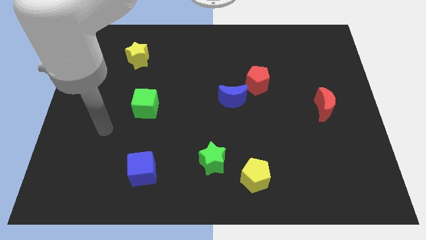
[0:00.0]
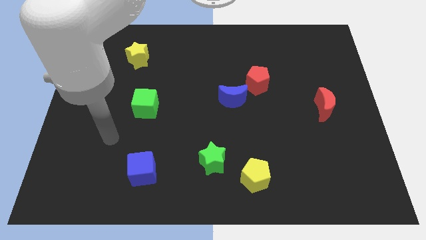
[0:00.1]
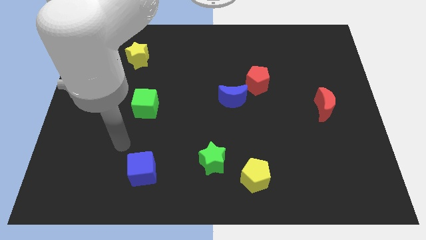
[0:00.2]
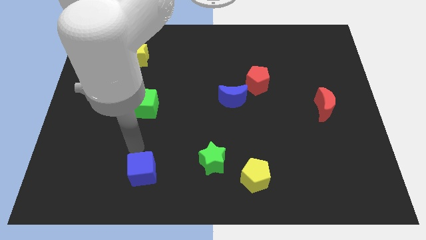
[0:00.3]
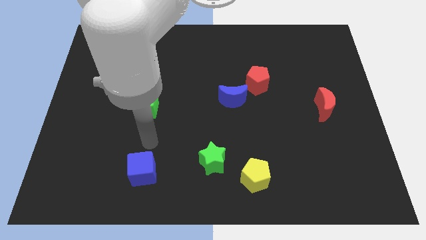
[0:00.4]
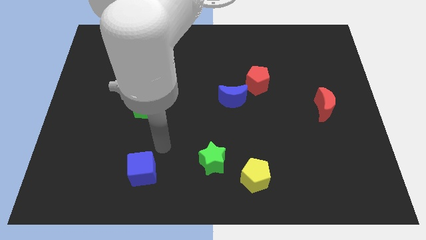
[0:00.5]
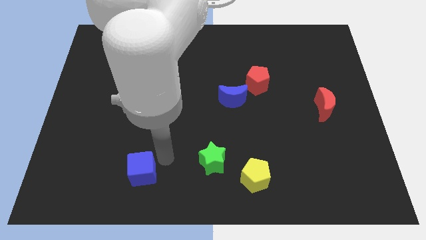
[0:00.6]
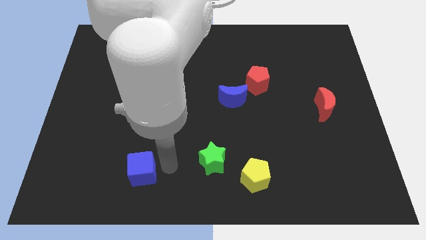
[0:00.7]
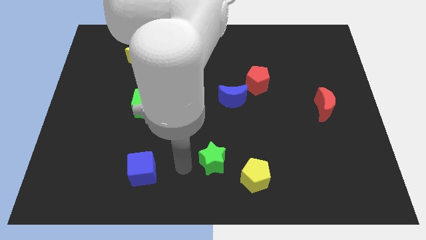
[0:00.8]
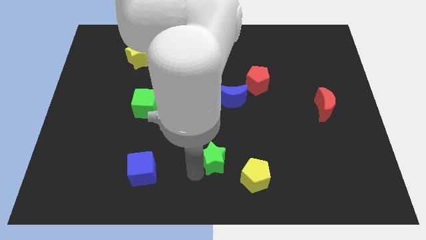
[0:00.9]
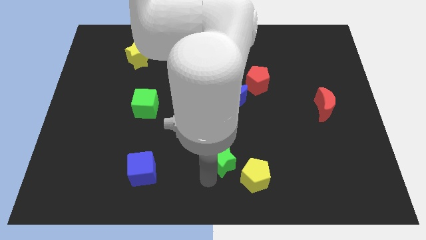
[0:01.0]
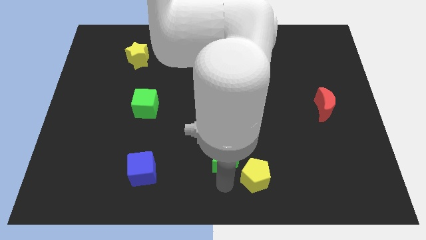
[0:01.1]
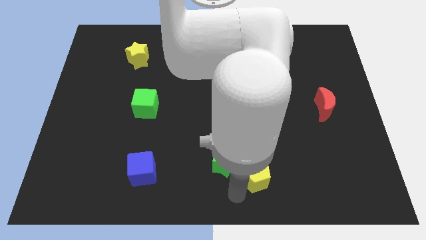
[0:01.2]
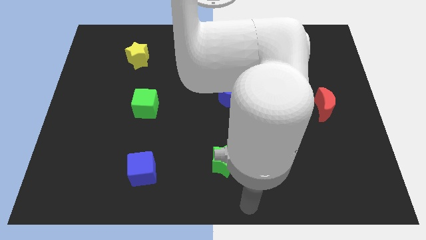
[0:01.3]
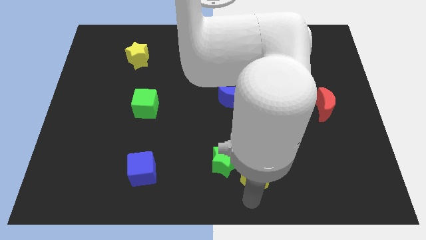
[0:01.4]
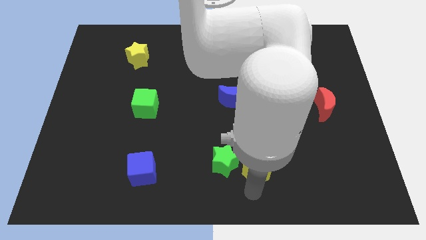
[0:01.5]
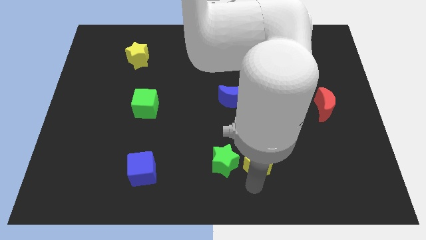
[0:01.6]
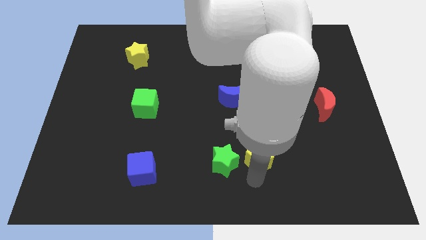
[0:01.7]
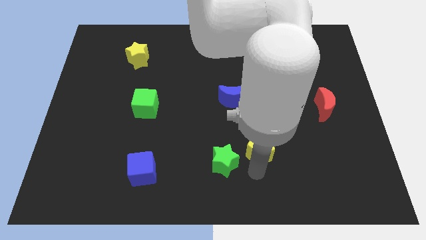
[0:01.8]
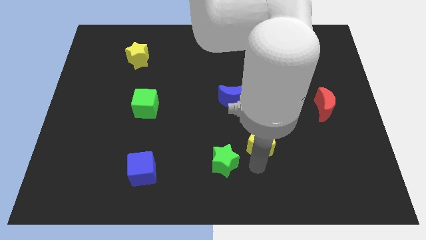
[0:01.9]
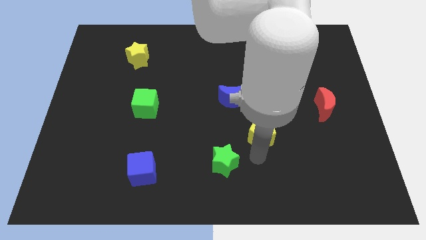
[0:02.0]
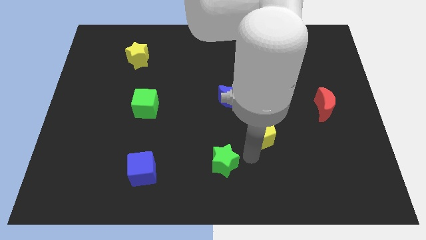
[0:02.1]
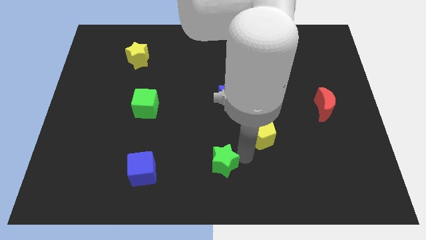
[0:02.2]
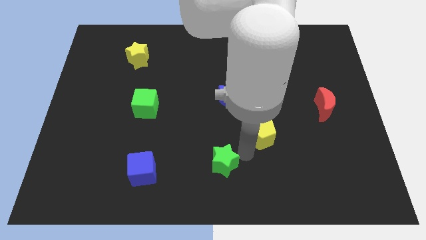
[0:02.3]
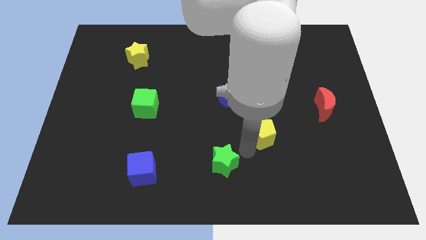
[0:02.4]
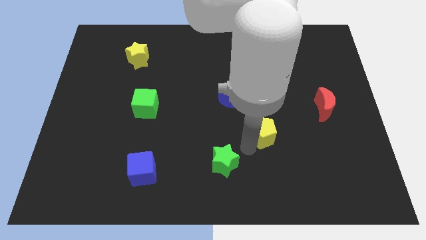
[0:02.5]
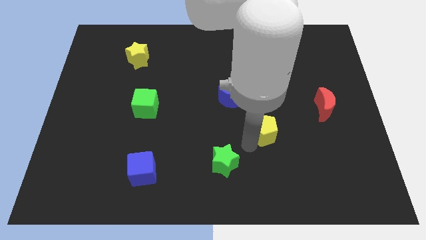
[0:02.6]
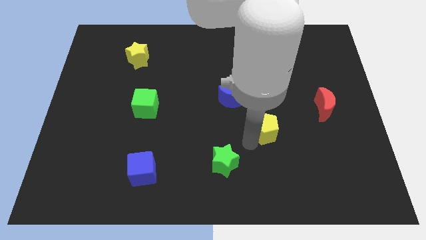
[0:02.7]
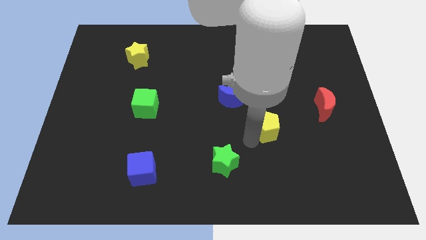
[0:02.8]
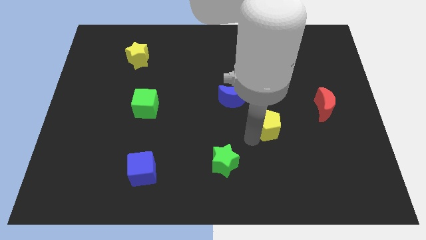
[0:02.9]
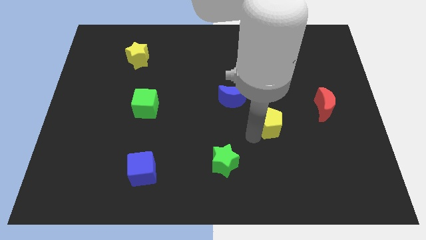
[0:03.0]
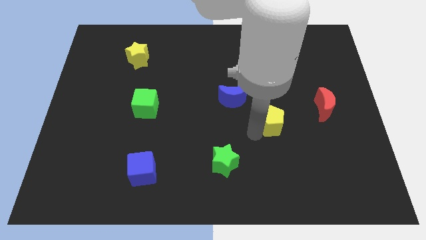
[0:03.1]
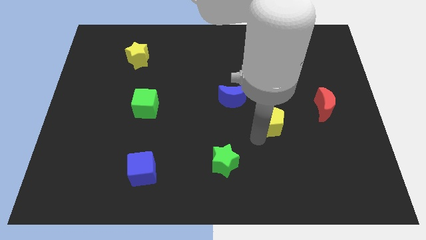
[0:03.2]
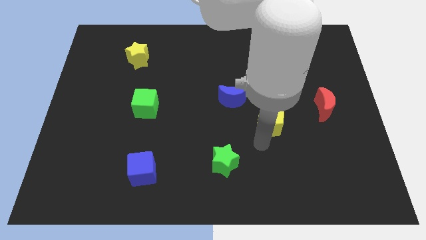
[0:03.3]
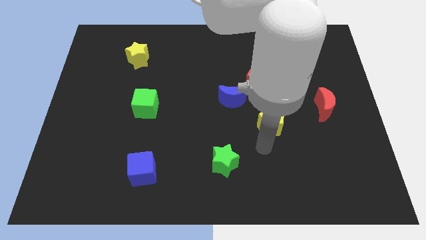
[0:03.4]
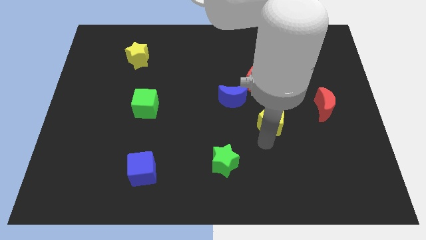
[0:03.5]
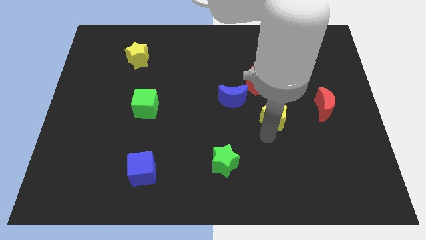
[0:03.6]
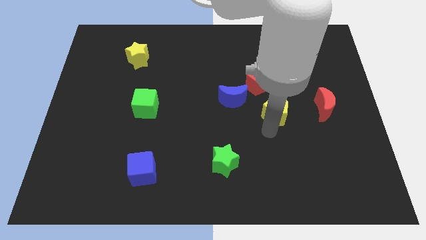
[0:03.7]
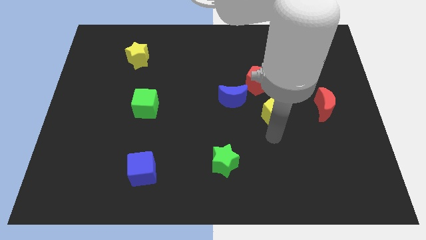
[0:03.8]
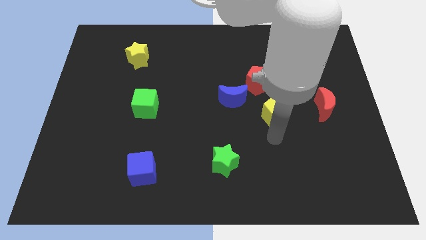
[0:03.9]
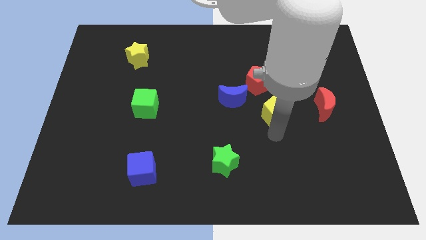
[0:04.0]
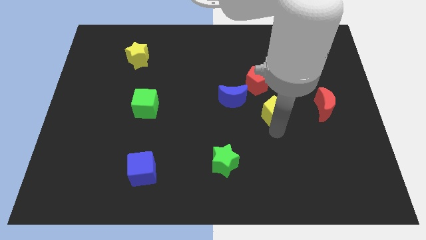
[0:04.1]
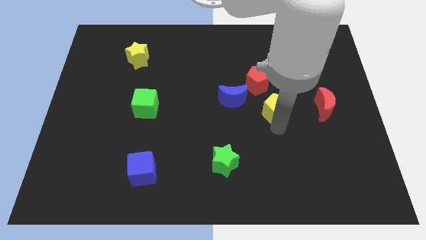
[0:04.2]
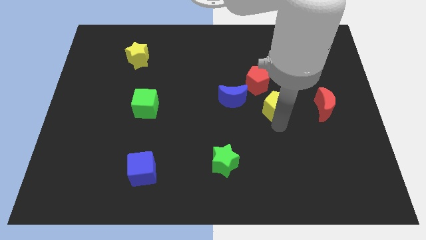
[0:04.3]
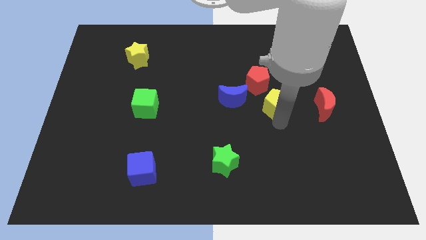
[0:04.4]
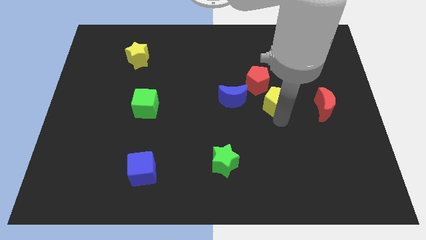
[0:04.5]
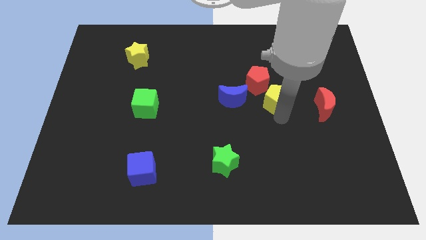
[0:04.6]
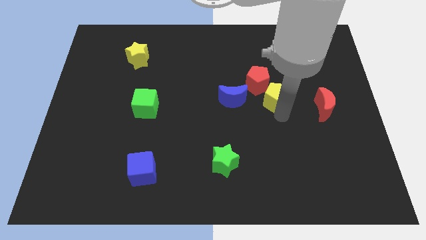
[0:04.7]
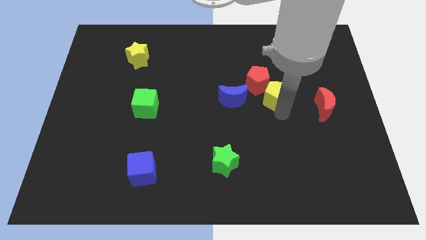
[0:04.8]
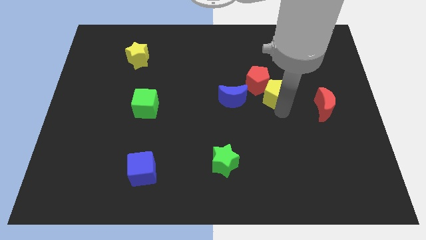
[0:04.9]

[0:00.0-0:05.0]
move the yellow pentagon up

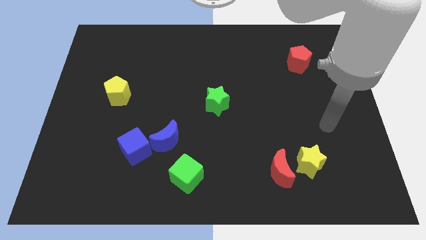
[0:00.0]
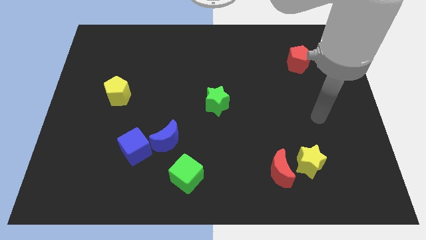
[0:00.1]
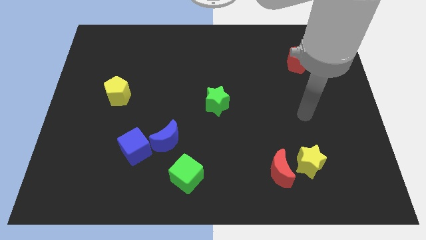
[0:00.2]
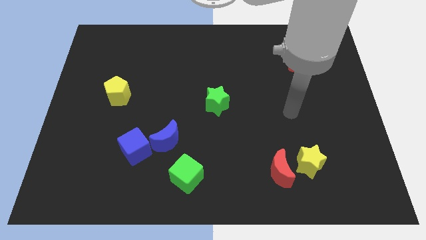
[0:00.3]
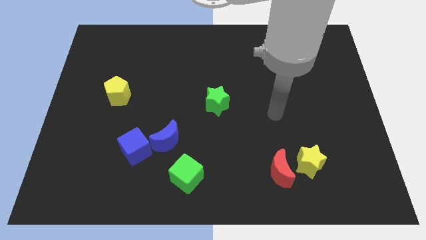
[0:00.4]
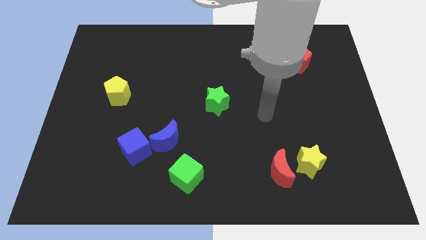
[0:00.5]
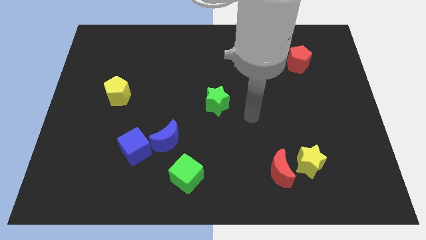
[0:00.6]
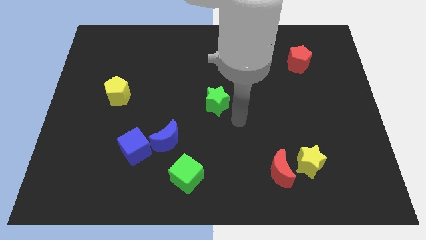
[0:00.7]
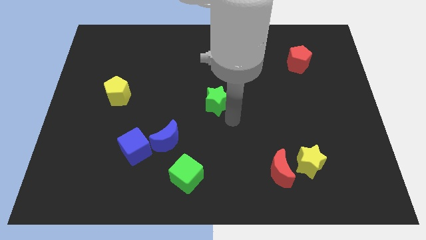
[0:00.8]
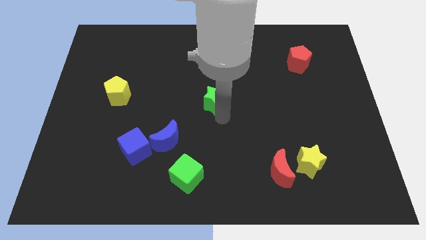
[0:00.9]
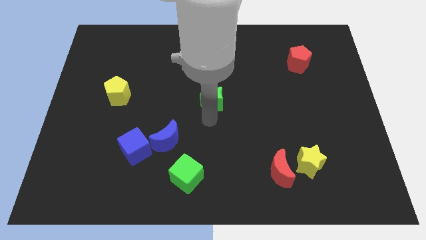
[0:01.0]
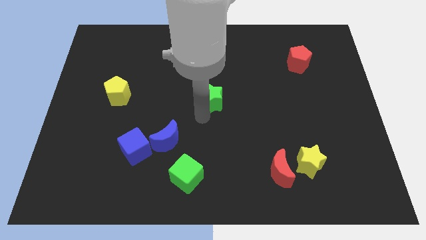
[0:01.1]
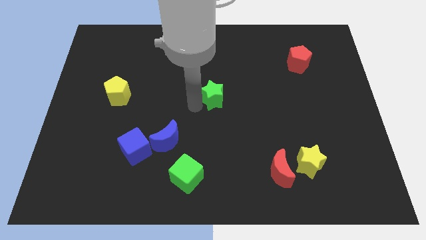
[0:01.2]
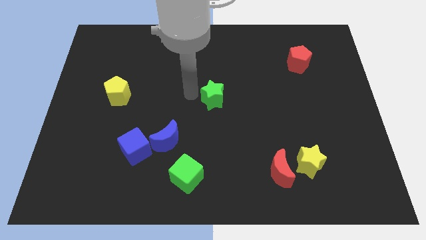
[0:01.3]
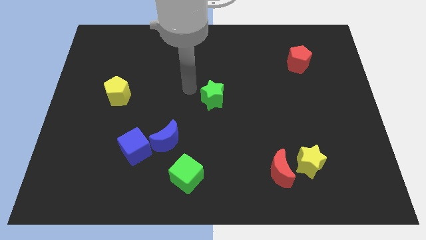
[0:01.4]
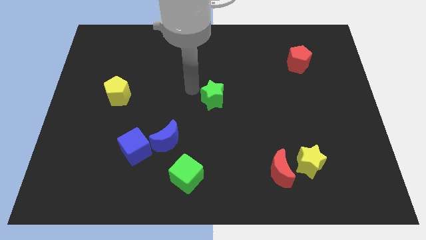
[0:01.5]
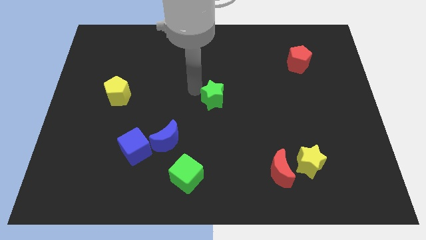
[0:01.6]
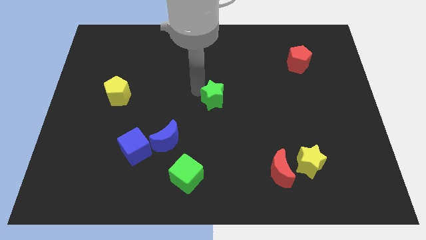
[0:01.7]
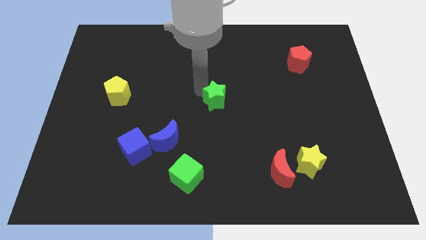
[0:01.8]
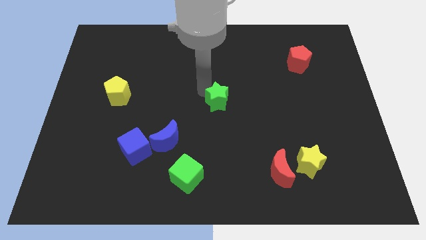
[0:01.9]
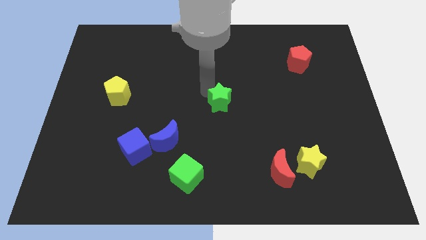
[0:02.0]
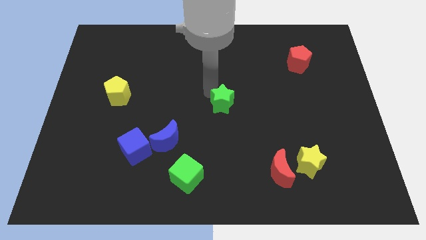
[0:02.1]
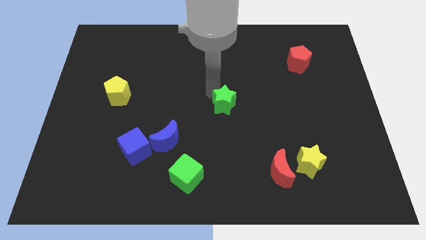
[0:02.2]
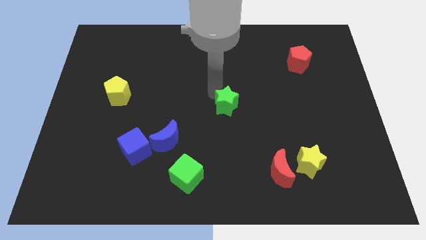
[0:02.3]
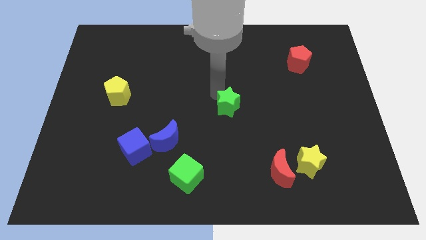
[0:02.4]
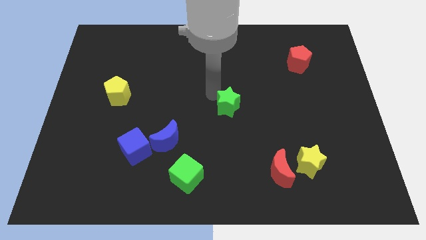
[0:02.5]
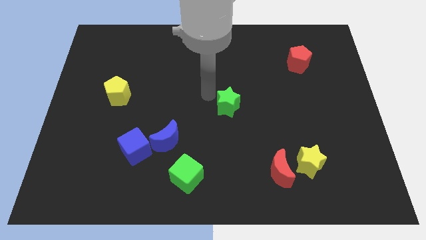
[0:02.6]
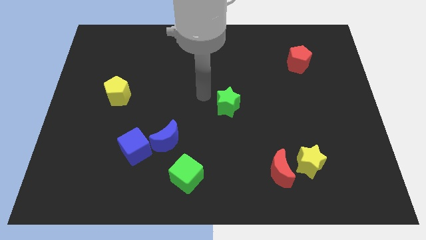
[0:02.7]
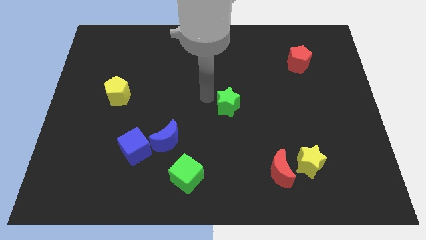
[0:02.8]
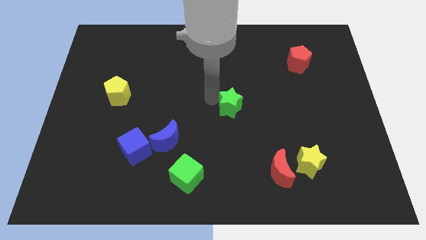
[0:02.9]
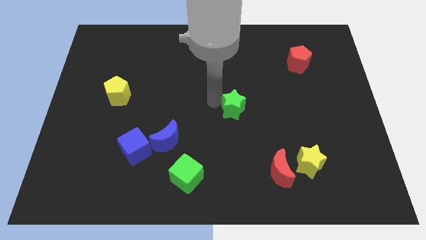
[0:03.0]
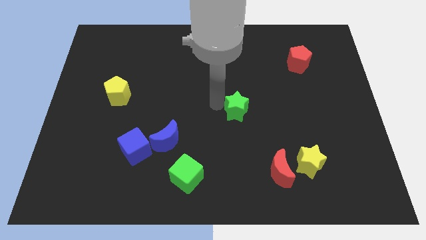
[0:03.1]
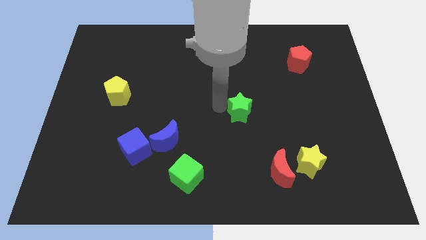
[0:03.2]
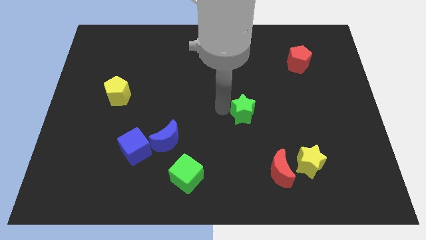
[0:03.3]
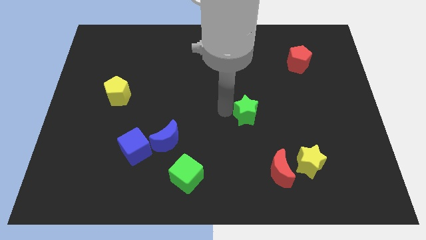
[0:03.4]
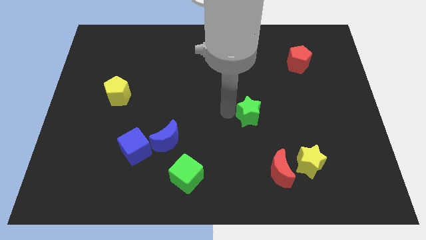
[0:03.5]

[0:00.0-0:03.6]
move the green star somewhat to the right
